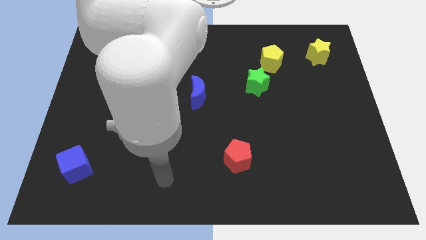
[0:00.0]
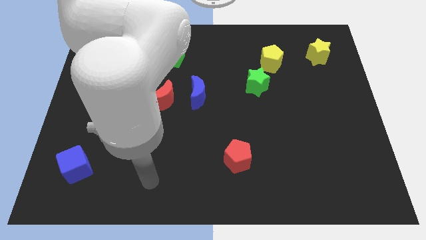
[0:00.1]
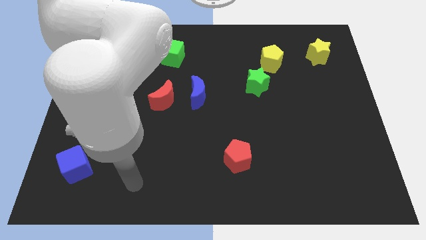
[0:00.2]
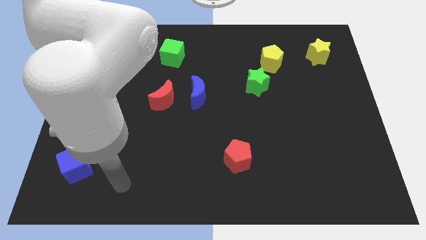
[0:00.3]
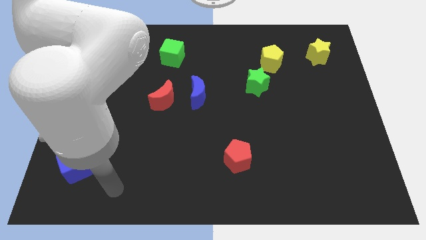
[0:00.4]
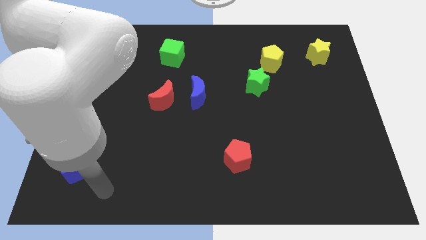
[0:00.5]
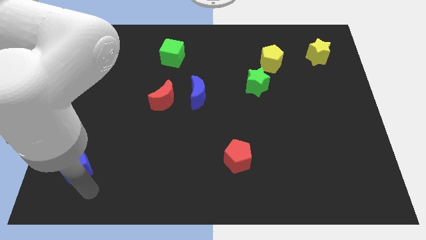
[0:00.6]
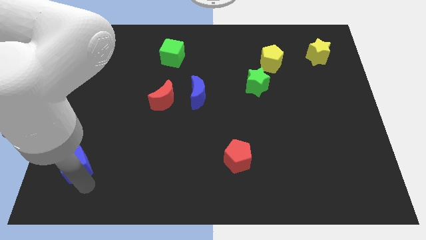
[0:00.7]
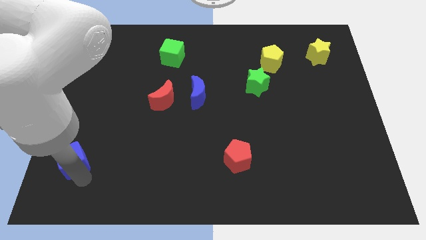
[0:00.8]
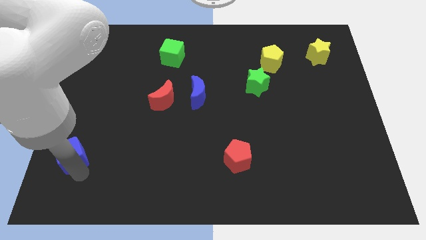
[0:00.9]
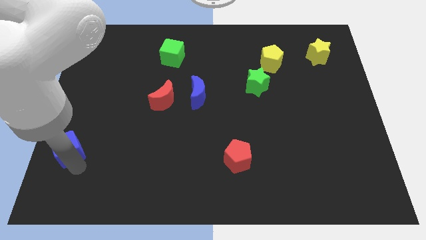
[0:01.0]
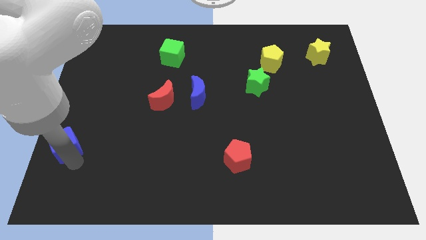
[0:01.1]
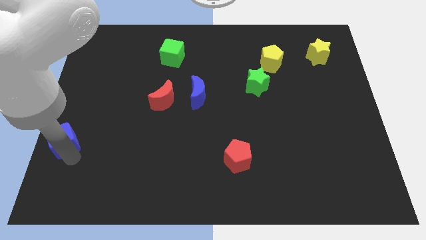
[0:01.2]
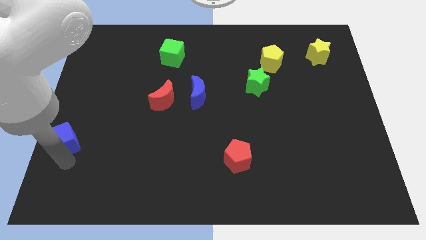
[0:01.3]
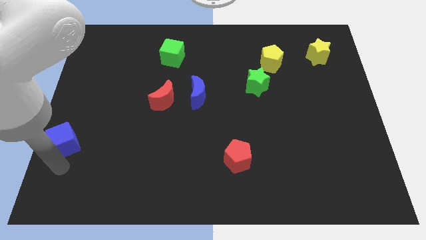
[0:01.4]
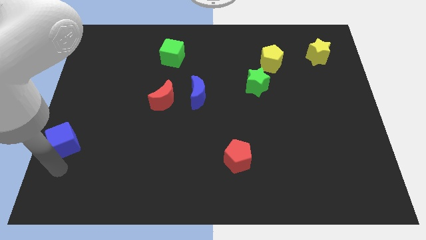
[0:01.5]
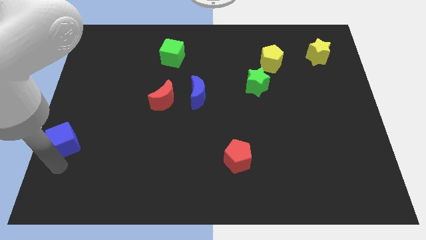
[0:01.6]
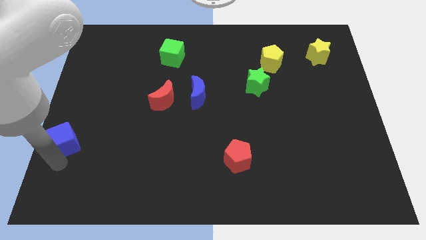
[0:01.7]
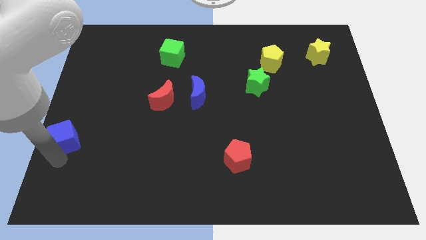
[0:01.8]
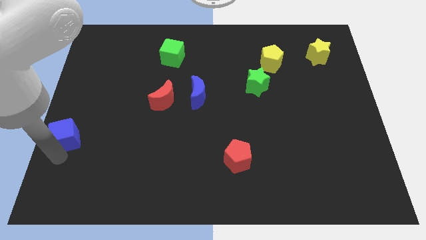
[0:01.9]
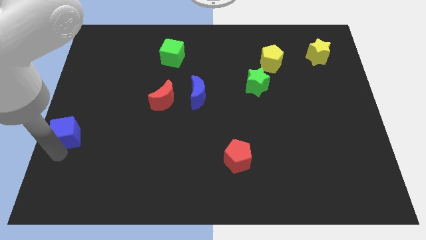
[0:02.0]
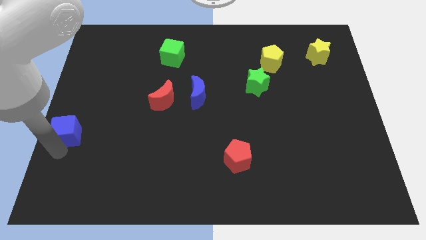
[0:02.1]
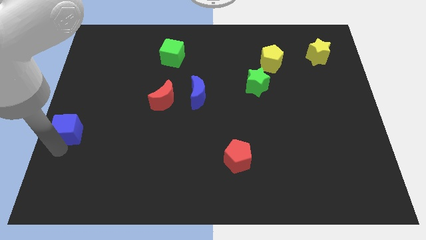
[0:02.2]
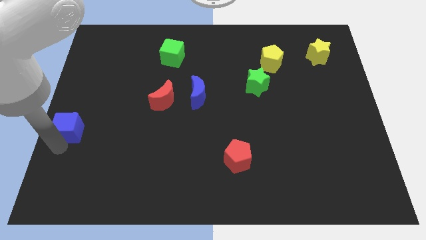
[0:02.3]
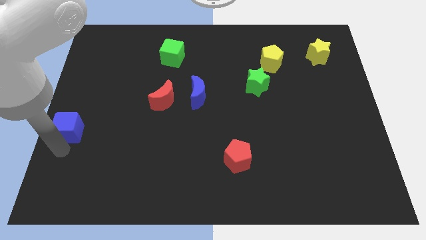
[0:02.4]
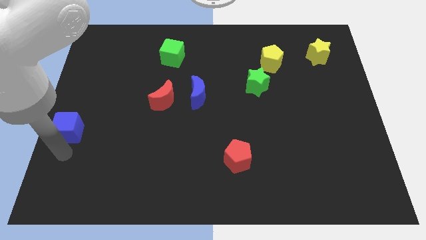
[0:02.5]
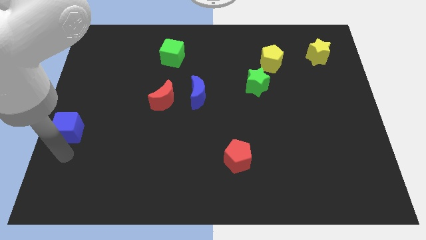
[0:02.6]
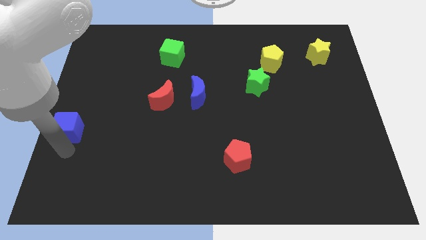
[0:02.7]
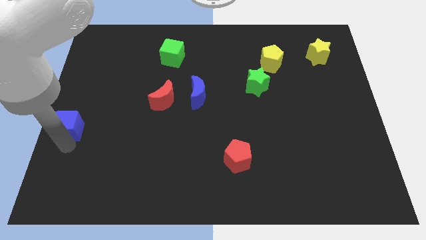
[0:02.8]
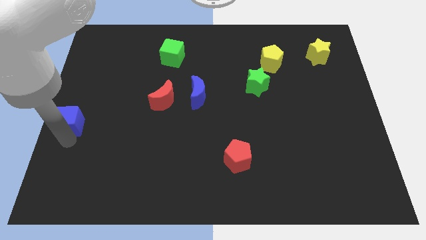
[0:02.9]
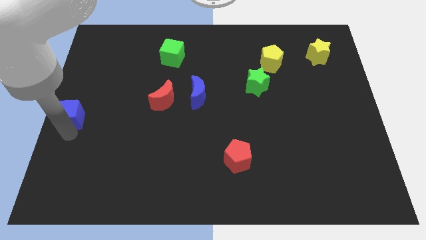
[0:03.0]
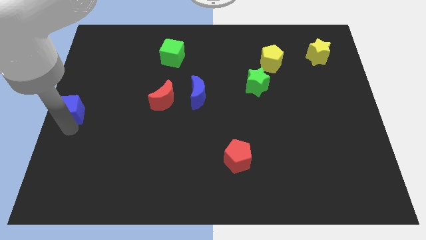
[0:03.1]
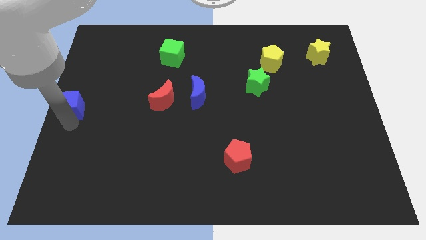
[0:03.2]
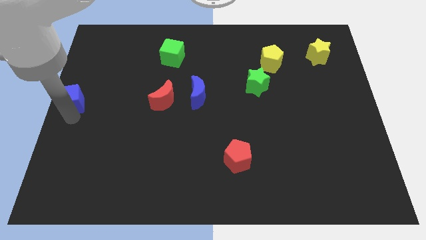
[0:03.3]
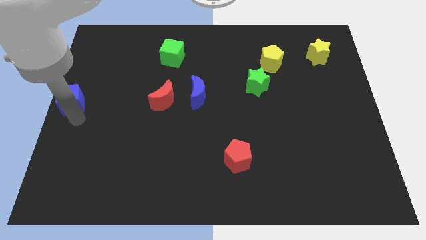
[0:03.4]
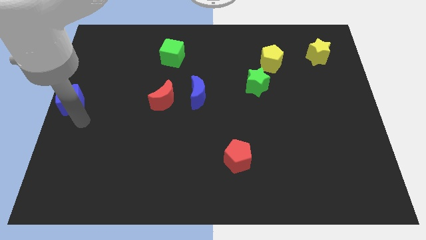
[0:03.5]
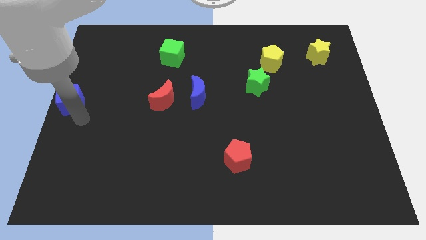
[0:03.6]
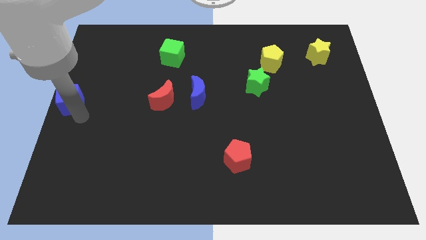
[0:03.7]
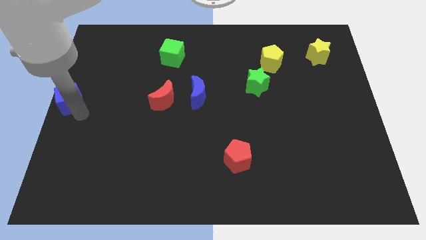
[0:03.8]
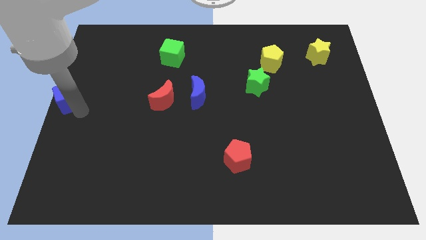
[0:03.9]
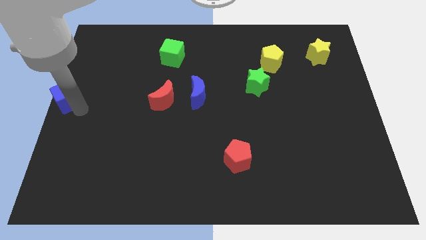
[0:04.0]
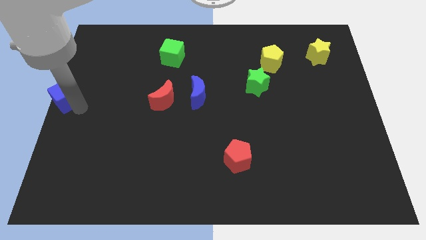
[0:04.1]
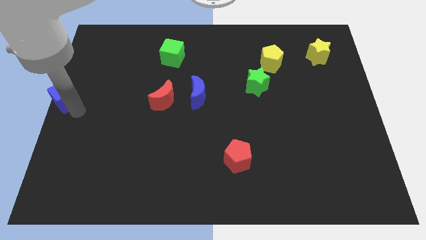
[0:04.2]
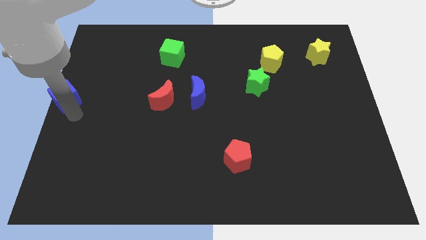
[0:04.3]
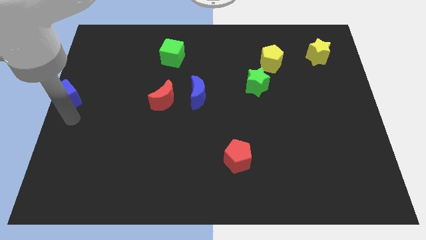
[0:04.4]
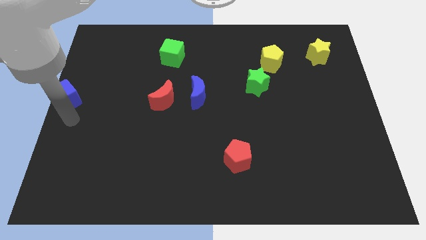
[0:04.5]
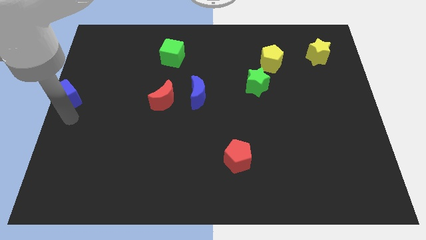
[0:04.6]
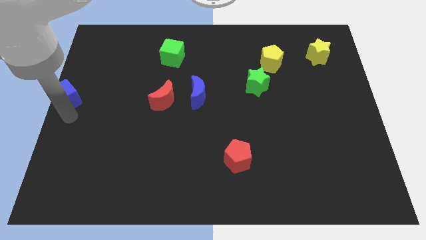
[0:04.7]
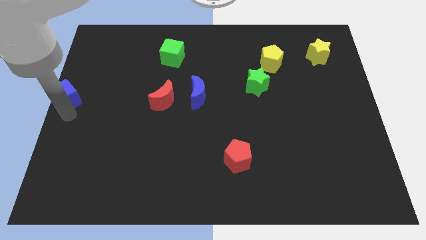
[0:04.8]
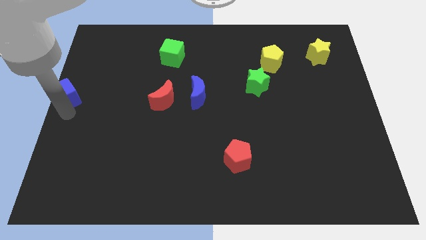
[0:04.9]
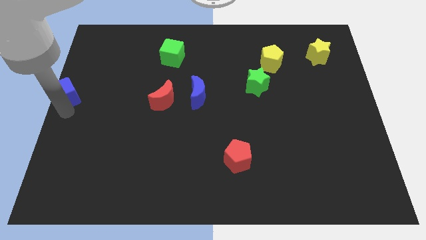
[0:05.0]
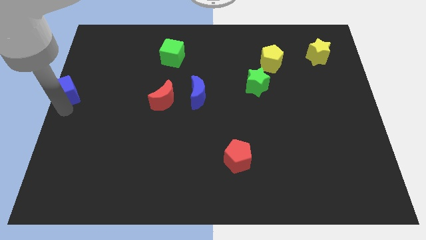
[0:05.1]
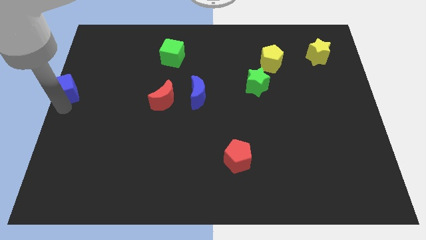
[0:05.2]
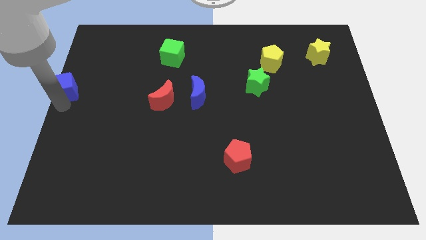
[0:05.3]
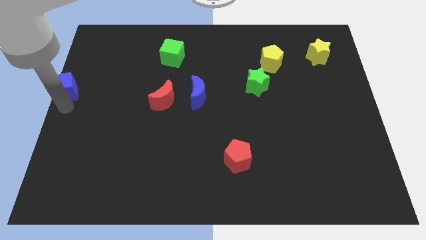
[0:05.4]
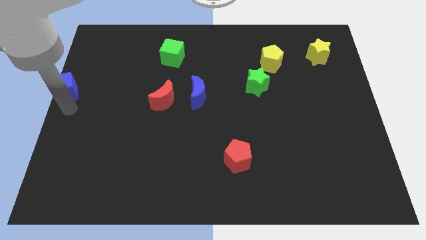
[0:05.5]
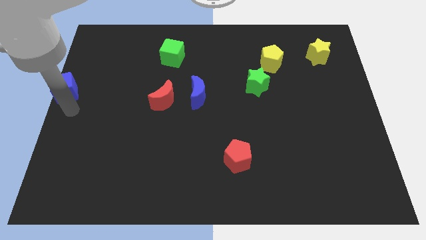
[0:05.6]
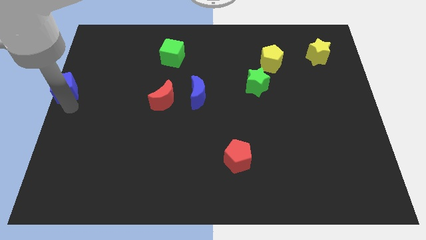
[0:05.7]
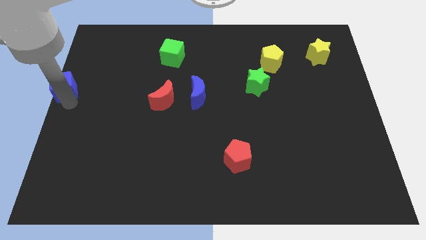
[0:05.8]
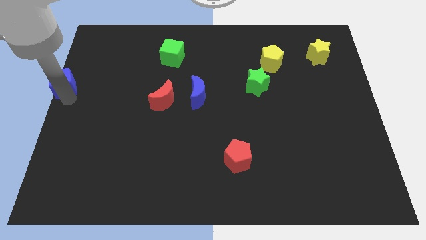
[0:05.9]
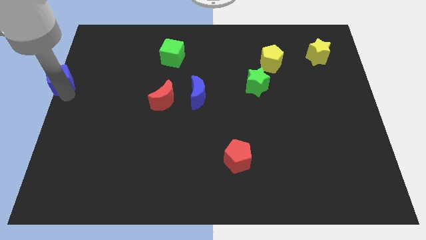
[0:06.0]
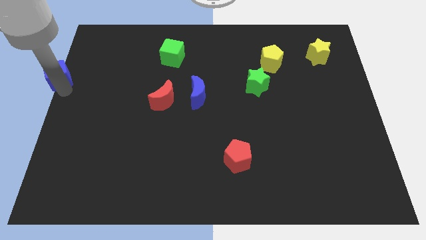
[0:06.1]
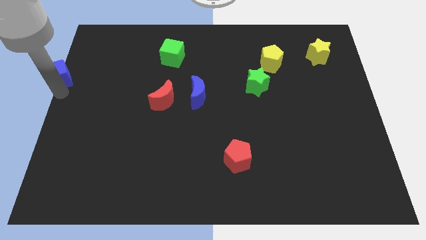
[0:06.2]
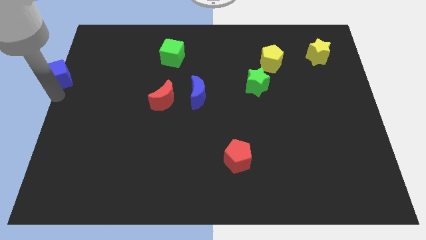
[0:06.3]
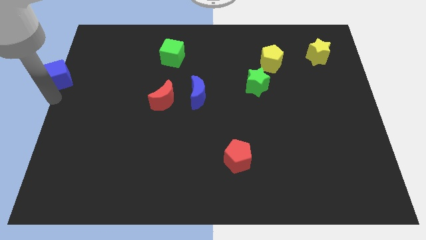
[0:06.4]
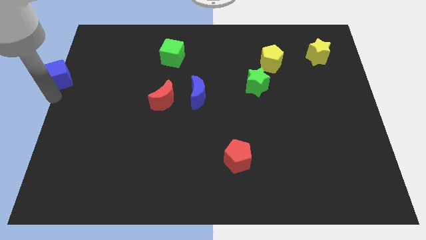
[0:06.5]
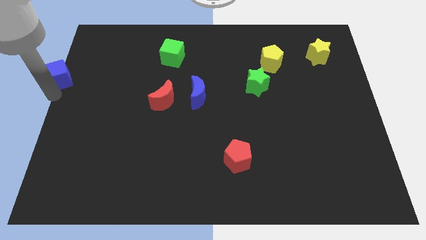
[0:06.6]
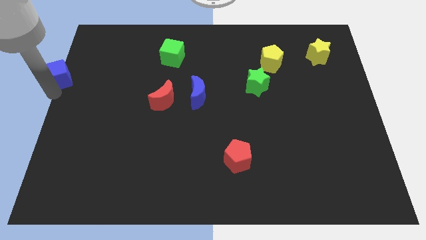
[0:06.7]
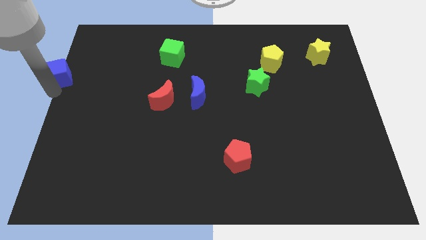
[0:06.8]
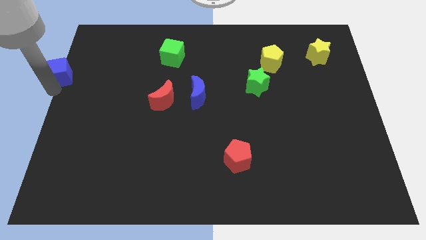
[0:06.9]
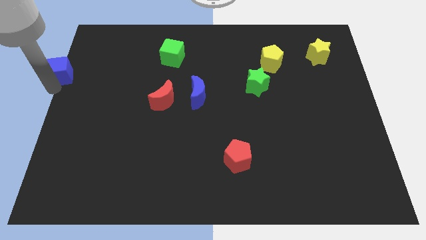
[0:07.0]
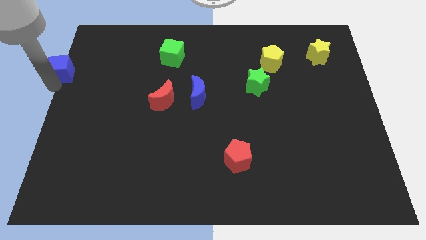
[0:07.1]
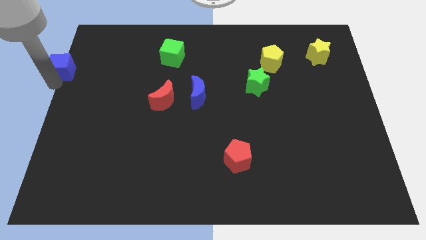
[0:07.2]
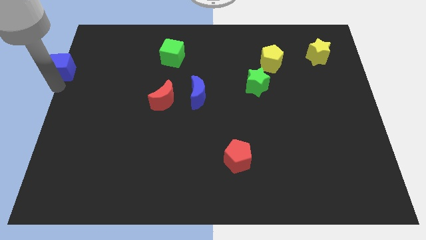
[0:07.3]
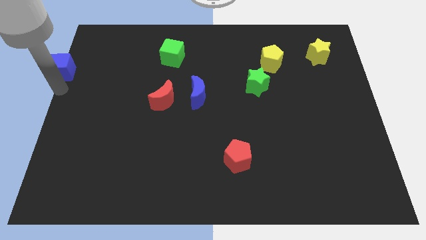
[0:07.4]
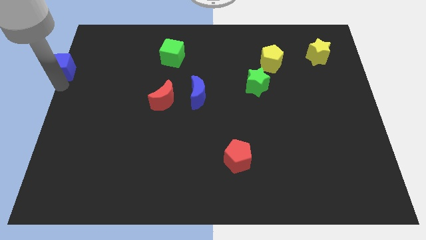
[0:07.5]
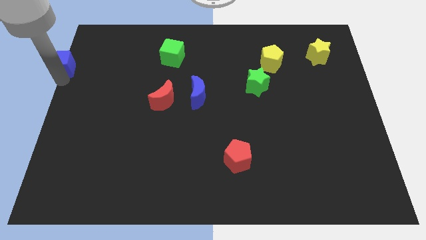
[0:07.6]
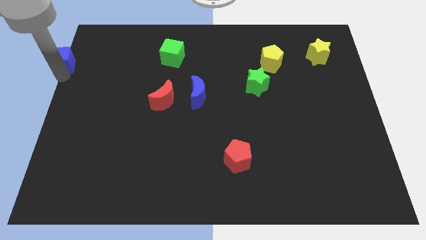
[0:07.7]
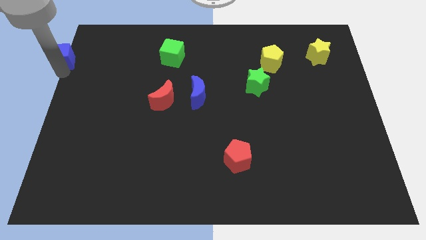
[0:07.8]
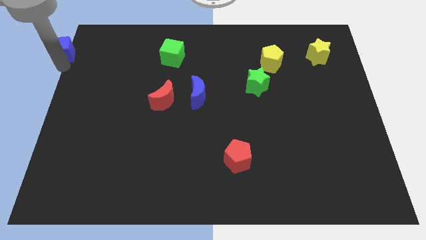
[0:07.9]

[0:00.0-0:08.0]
slide the blue cube to the top left
